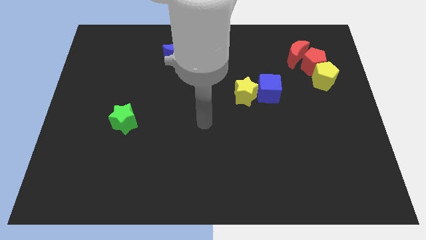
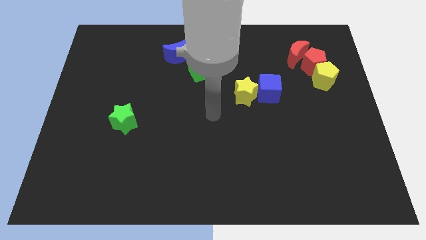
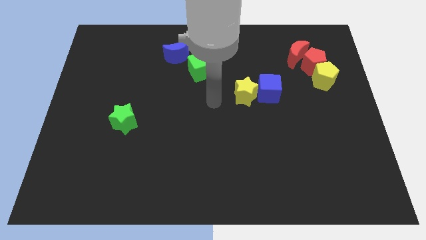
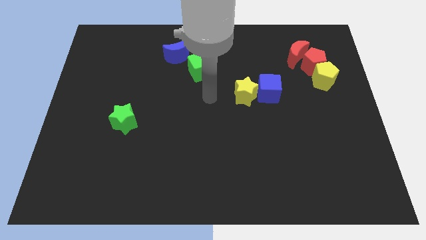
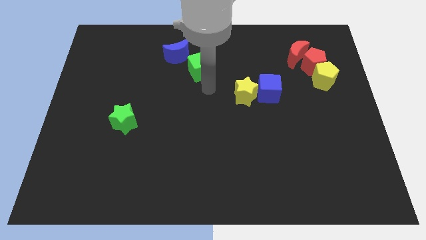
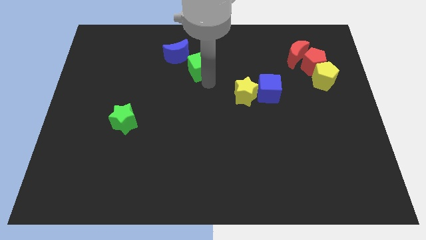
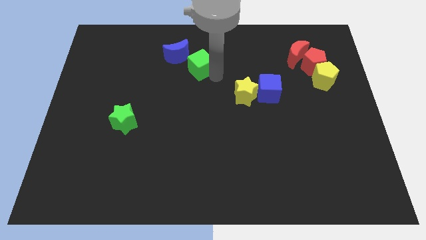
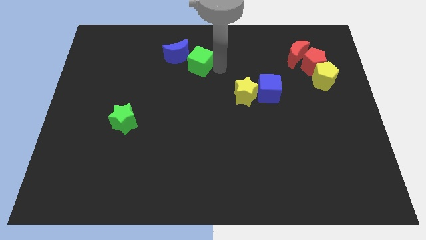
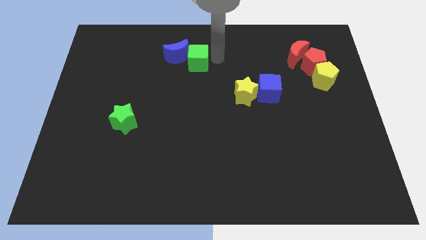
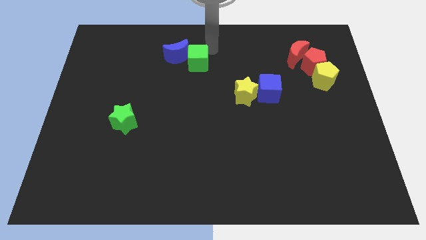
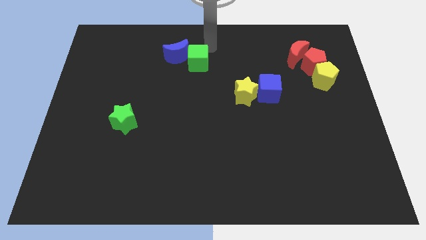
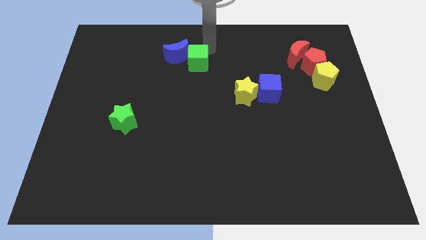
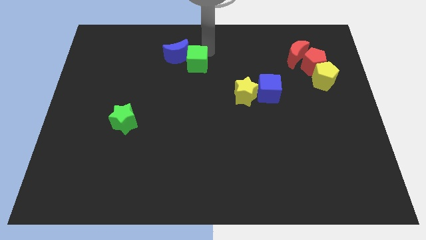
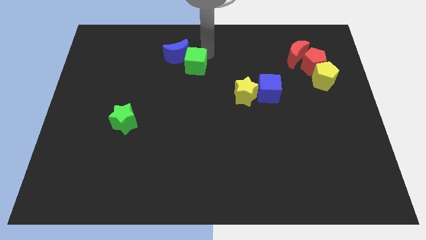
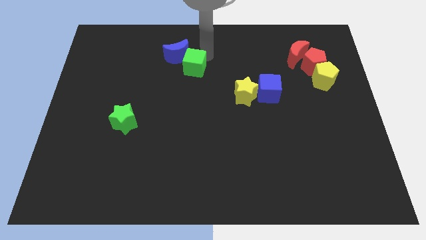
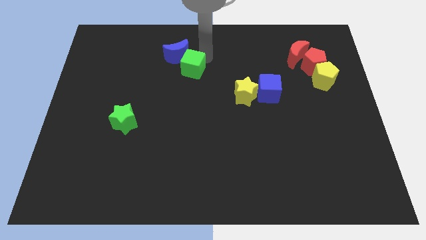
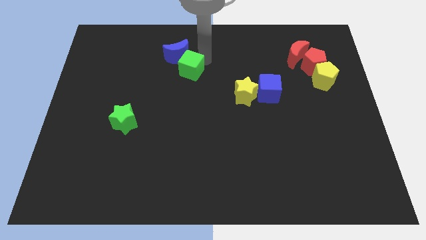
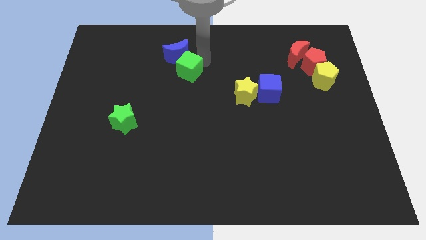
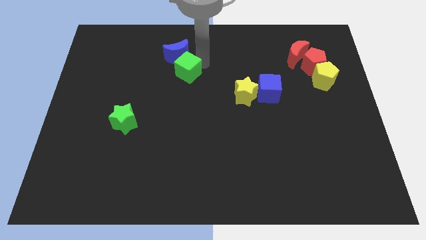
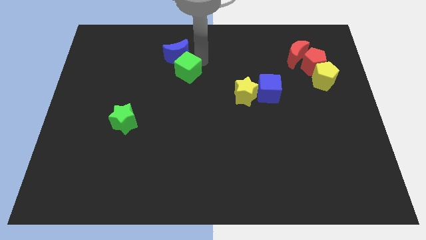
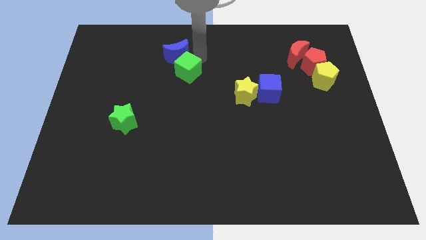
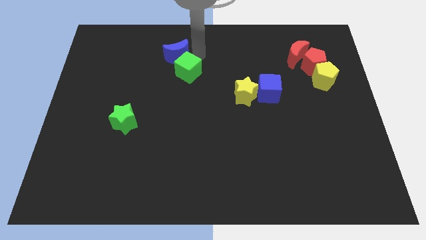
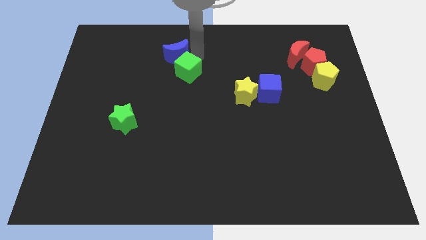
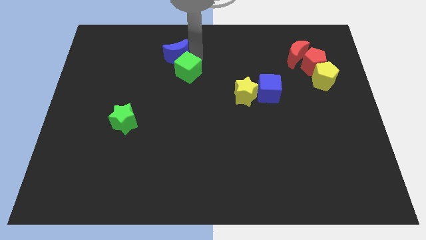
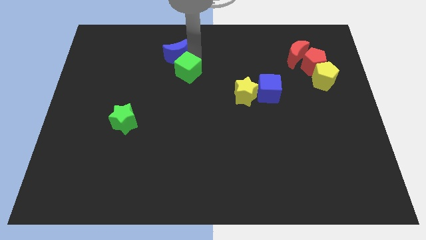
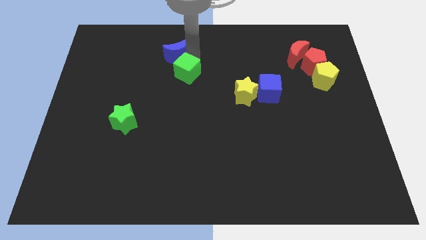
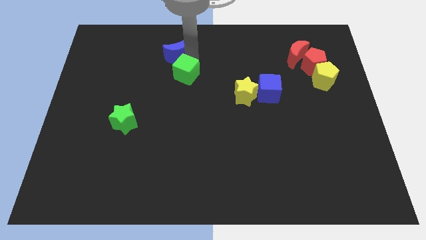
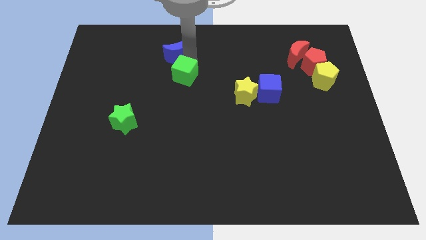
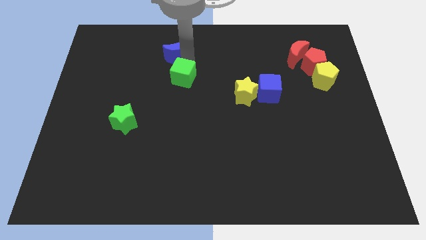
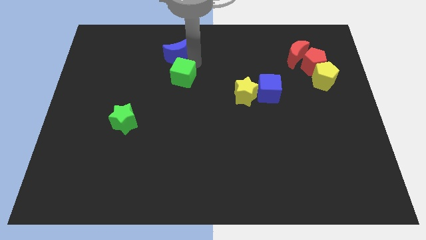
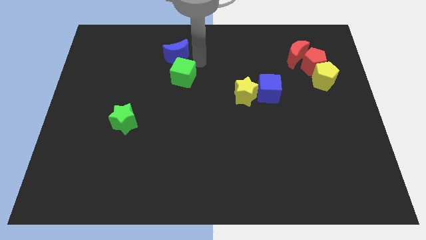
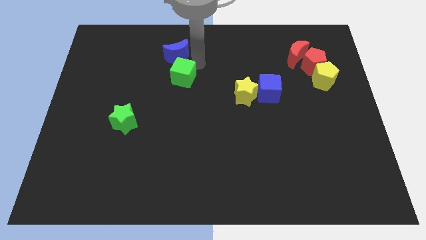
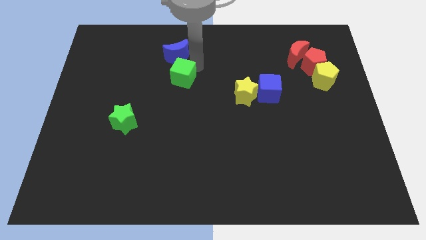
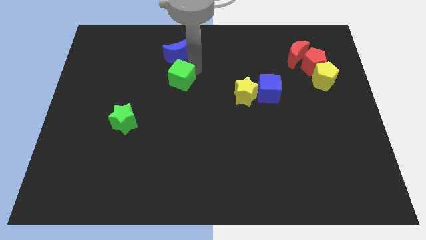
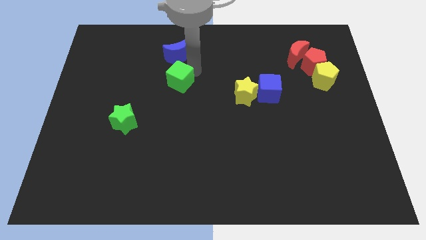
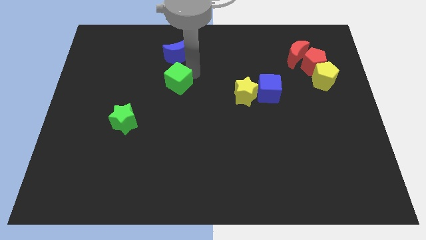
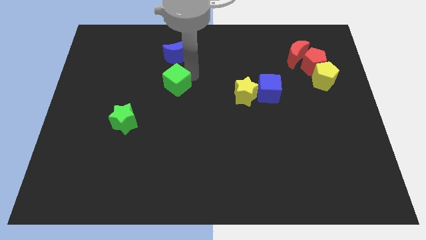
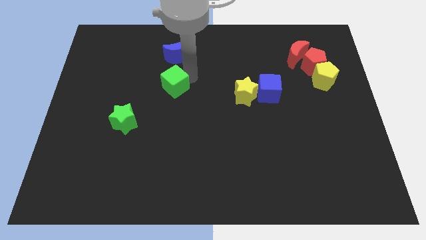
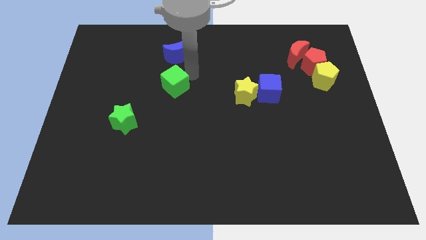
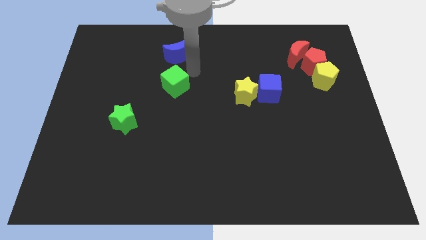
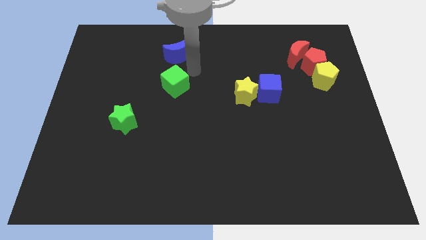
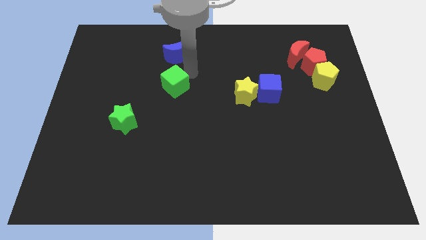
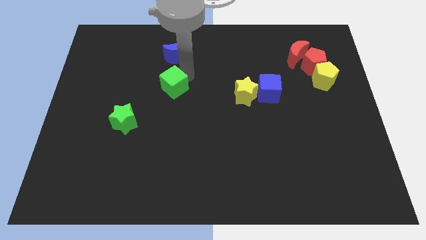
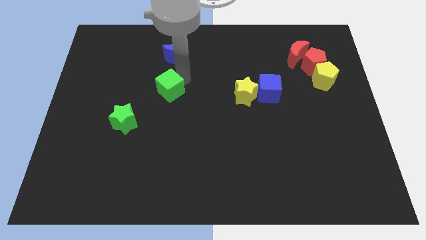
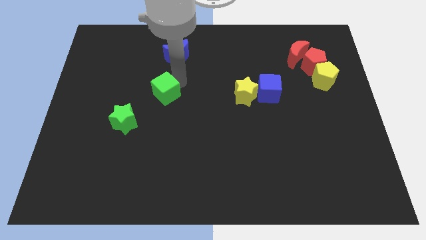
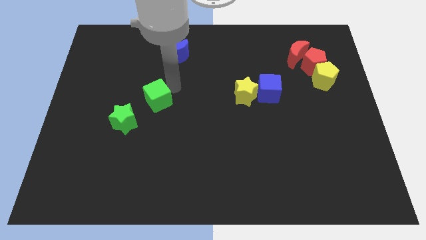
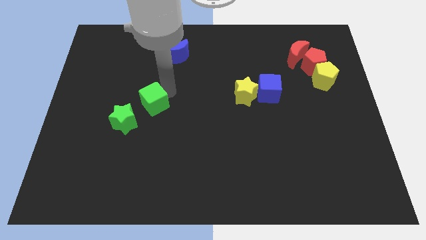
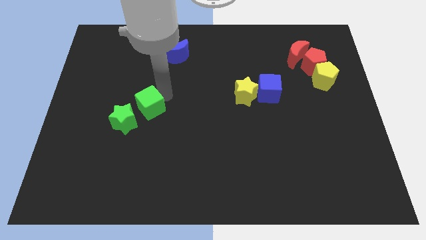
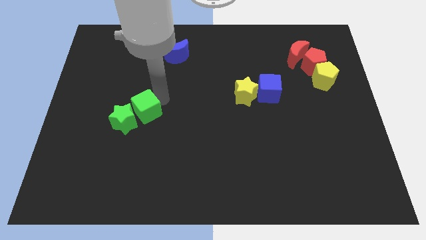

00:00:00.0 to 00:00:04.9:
move the green cube towards the green star

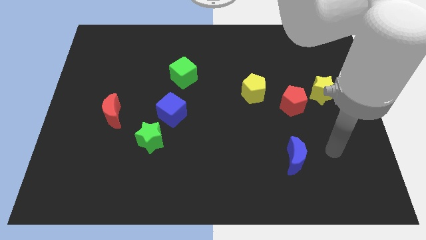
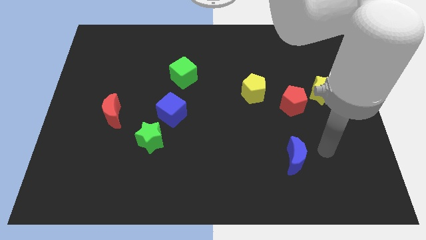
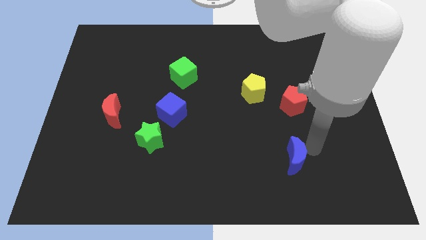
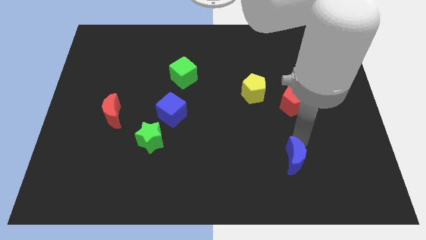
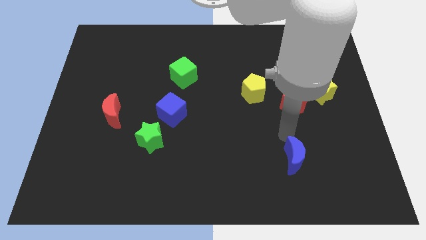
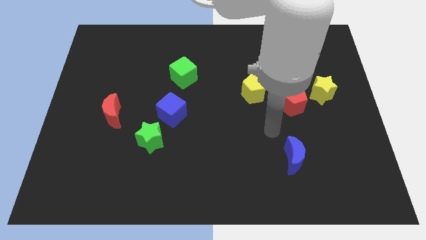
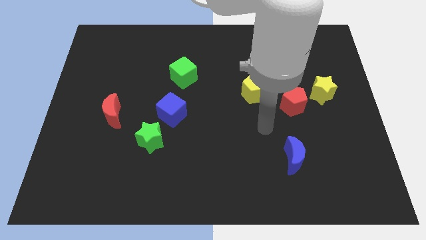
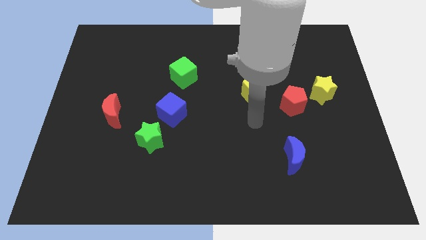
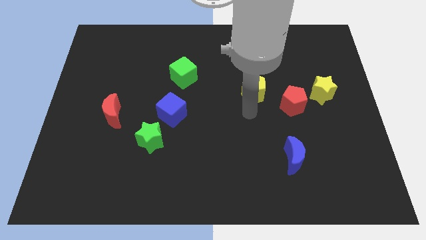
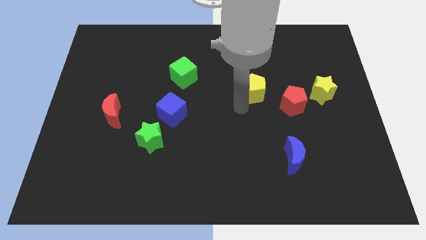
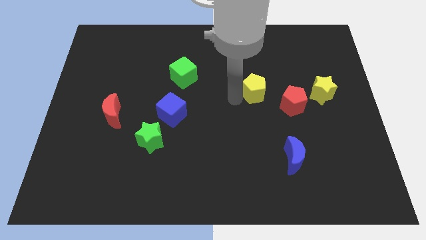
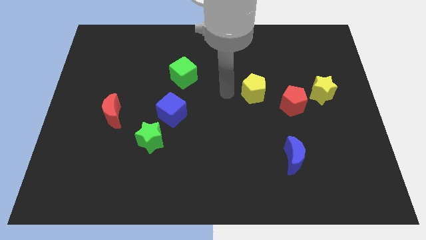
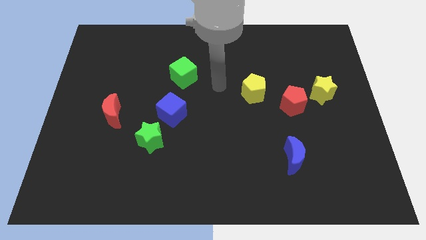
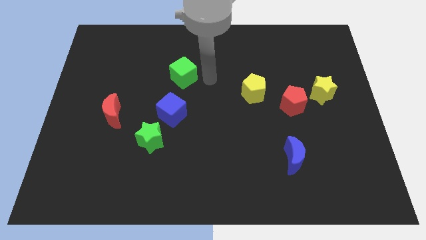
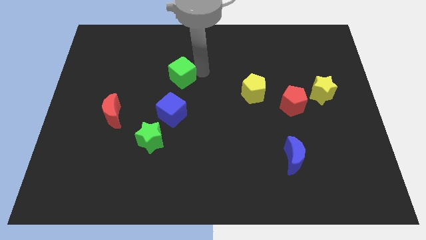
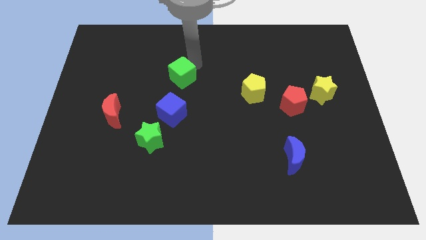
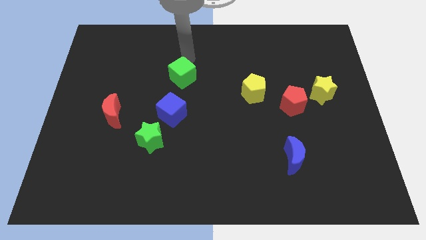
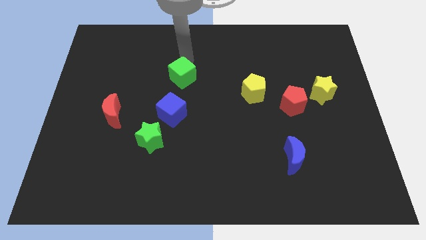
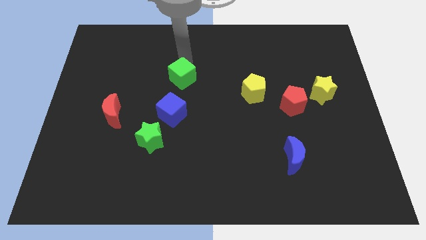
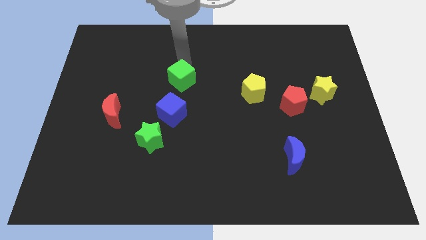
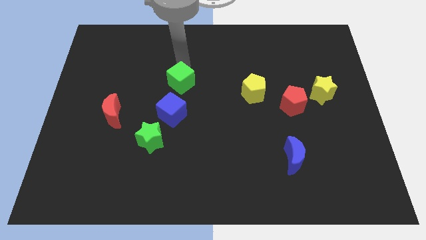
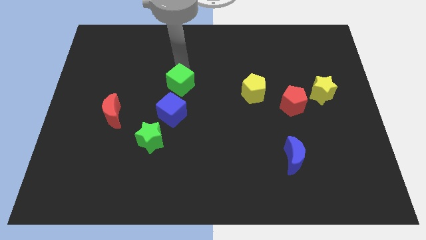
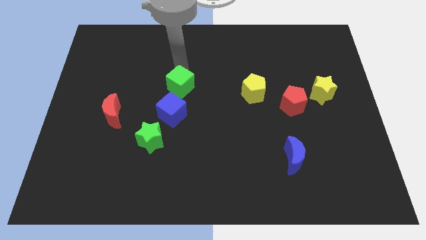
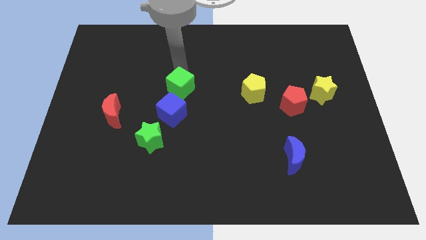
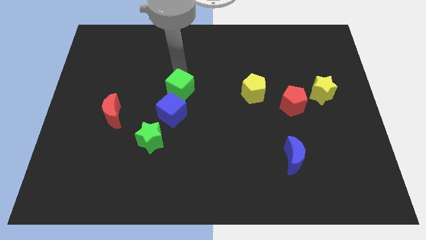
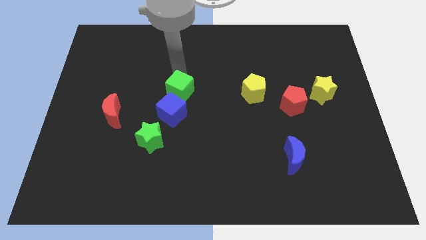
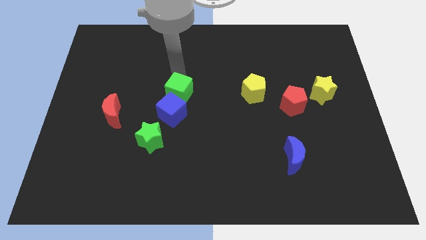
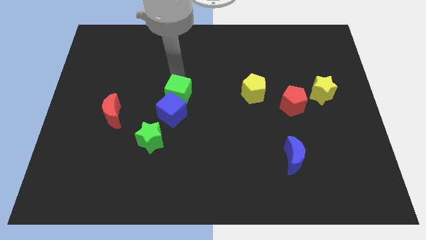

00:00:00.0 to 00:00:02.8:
move the green cube towards the blue cube
